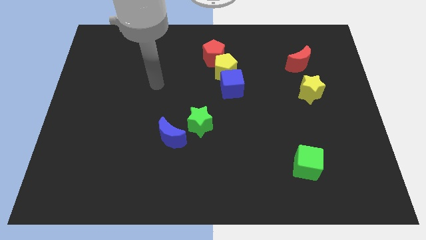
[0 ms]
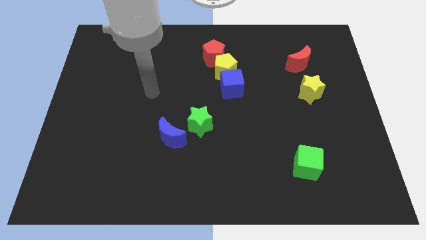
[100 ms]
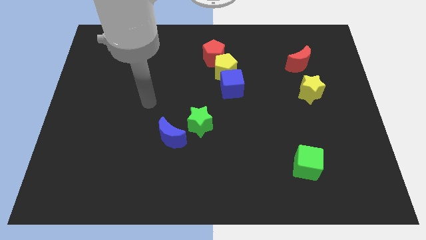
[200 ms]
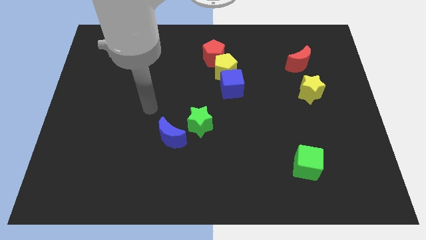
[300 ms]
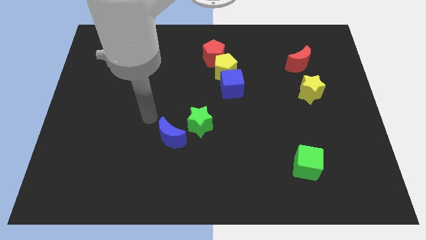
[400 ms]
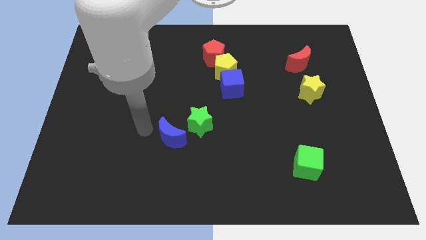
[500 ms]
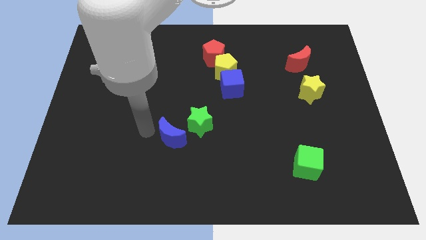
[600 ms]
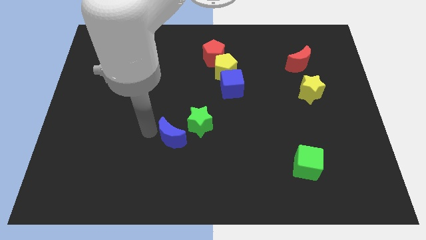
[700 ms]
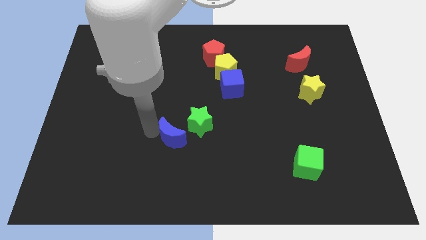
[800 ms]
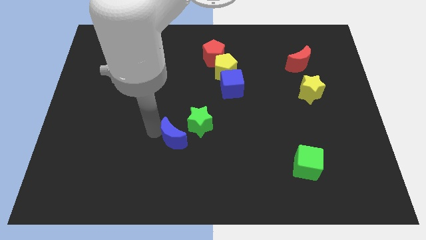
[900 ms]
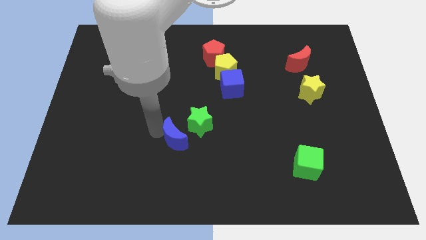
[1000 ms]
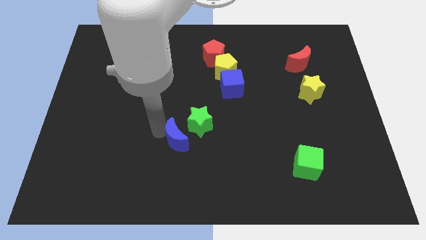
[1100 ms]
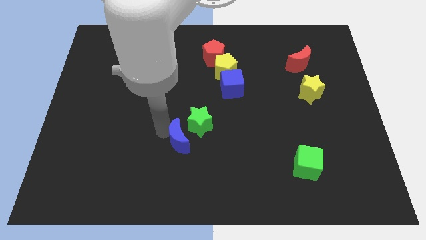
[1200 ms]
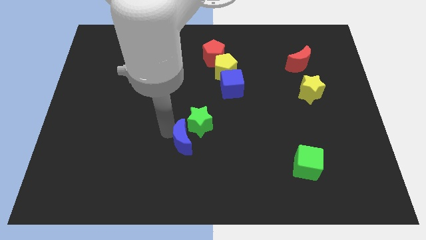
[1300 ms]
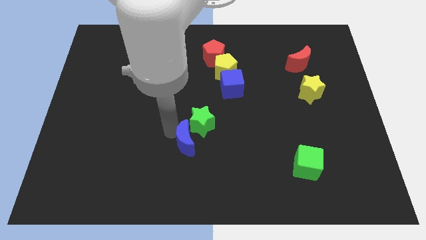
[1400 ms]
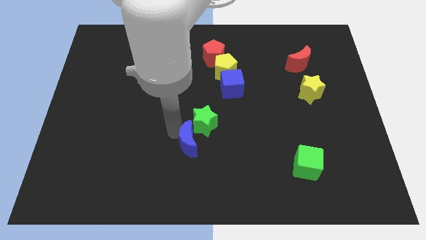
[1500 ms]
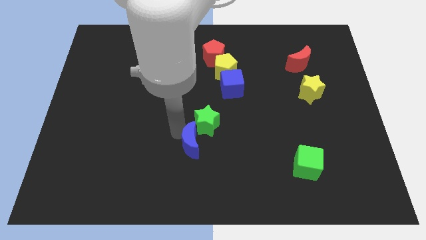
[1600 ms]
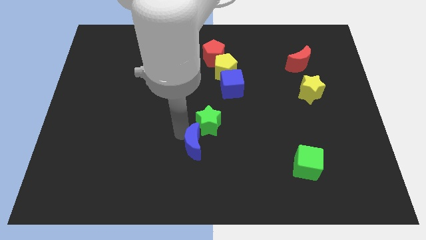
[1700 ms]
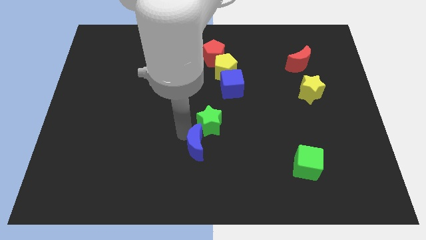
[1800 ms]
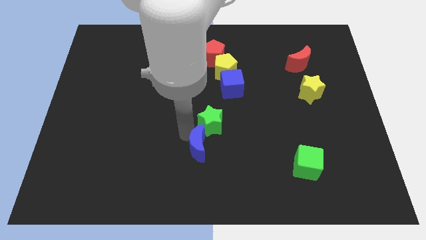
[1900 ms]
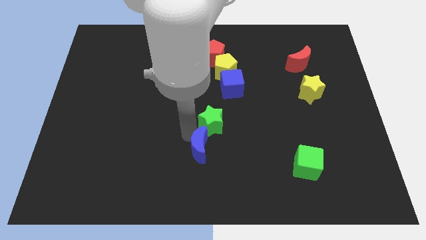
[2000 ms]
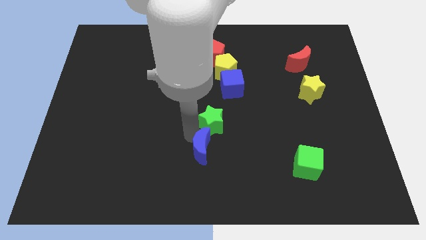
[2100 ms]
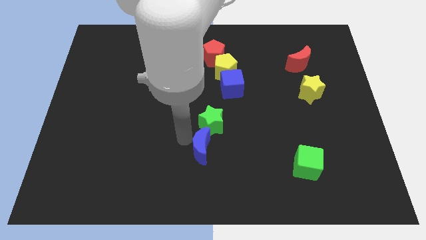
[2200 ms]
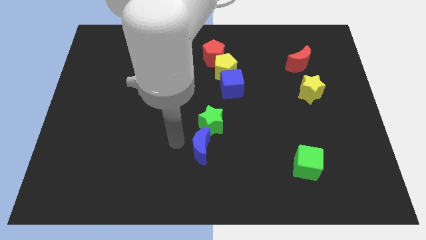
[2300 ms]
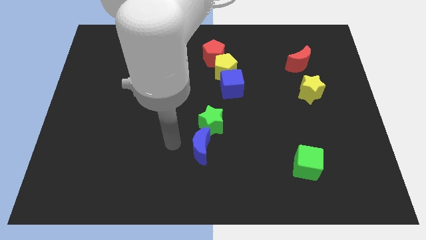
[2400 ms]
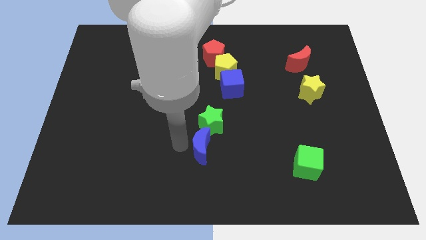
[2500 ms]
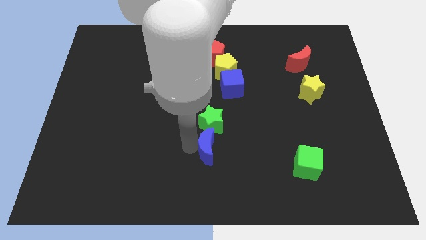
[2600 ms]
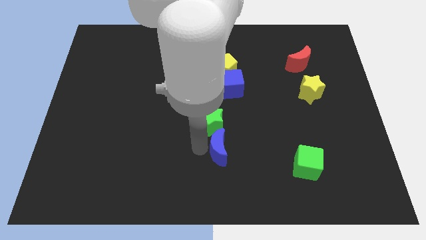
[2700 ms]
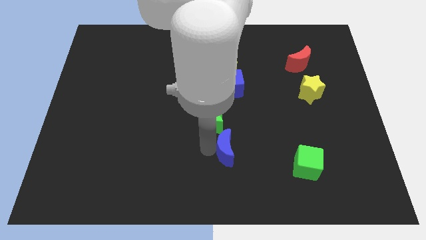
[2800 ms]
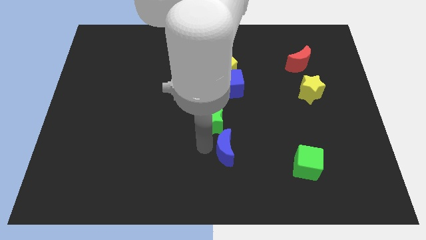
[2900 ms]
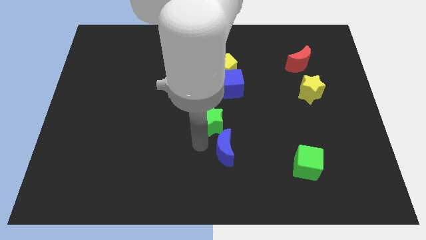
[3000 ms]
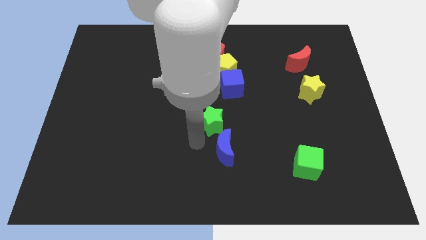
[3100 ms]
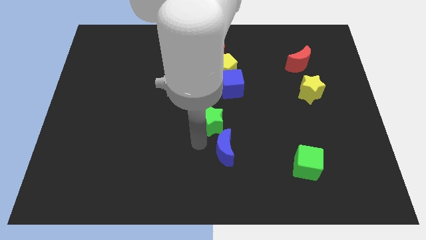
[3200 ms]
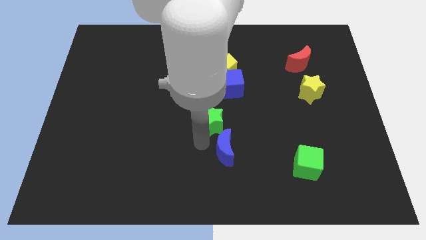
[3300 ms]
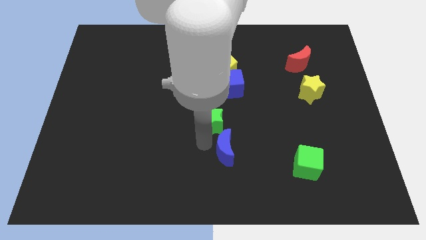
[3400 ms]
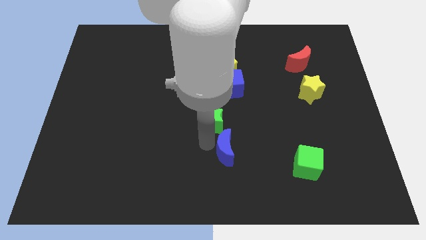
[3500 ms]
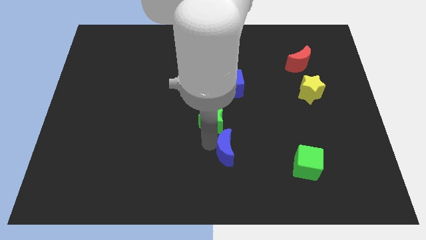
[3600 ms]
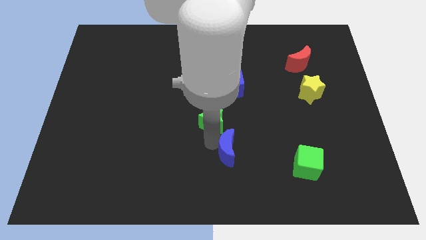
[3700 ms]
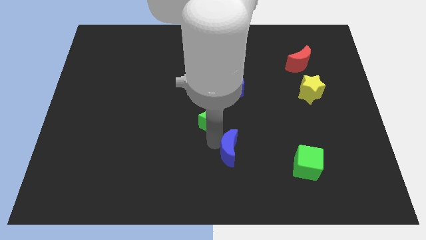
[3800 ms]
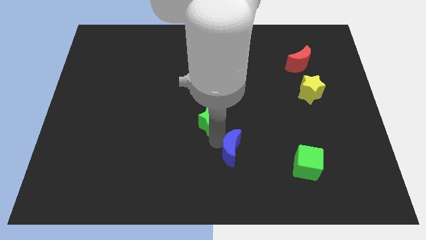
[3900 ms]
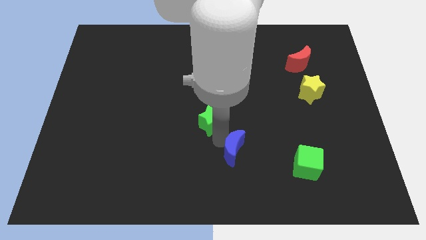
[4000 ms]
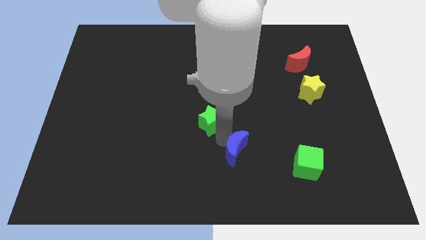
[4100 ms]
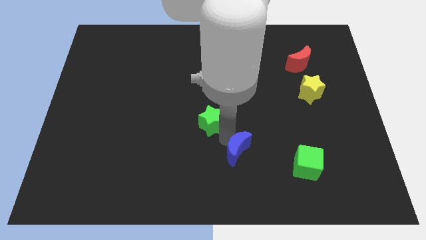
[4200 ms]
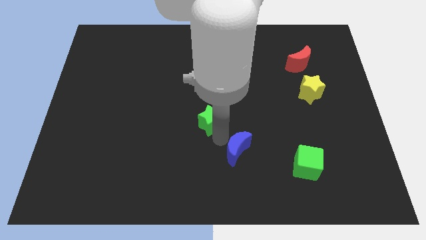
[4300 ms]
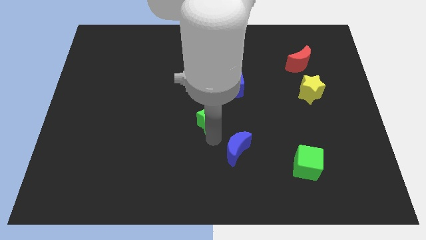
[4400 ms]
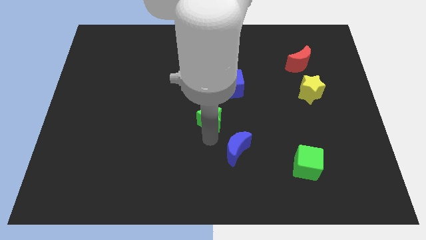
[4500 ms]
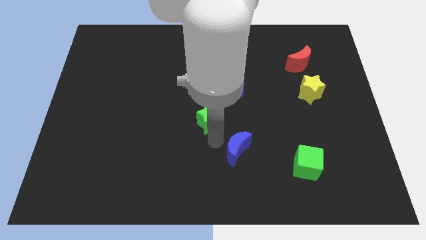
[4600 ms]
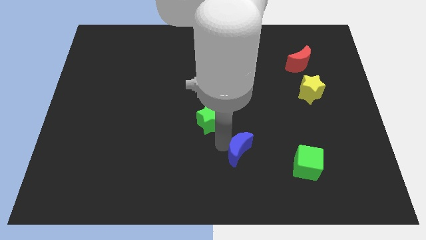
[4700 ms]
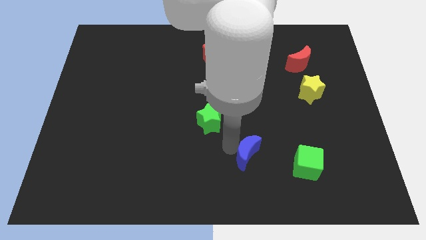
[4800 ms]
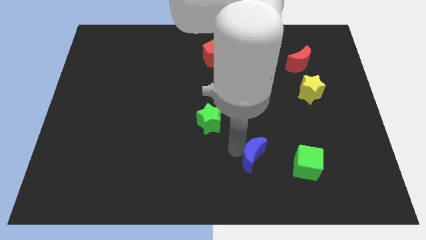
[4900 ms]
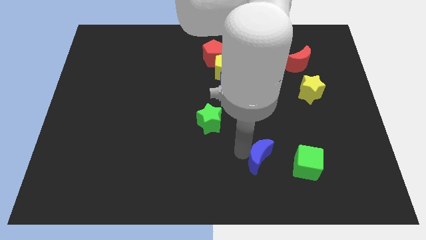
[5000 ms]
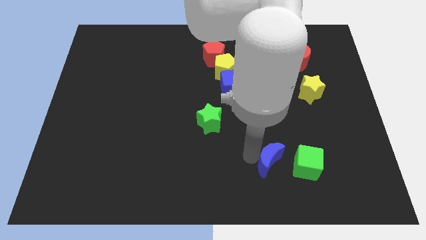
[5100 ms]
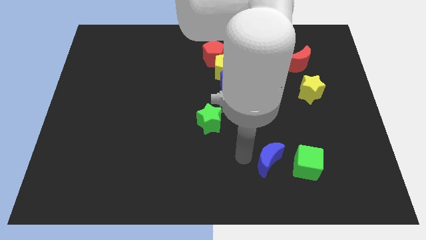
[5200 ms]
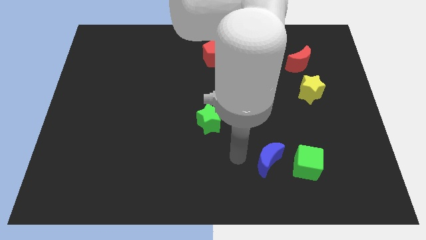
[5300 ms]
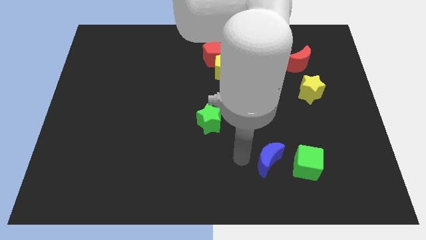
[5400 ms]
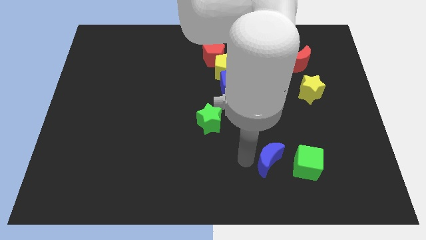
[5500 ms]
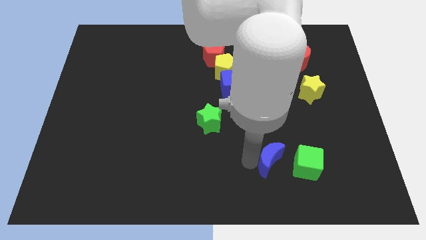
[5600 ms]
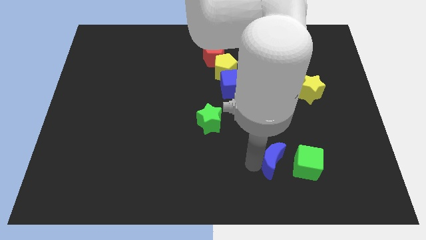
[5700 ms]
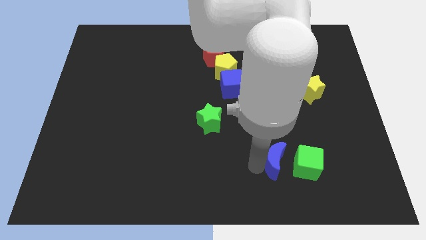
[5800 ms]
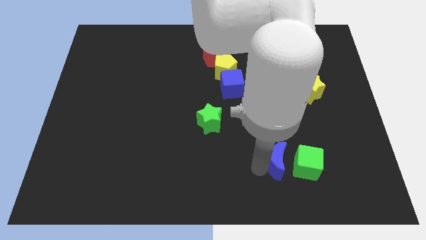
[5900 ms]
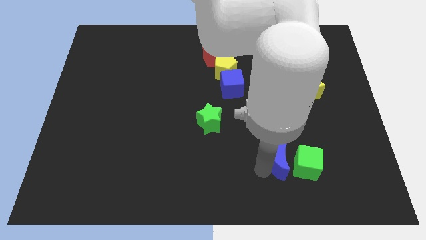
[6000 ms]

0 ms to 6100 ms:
push the blue moon towards the green cube

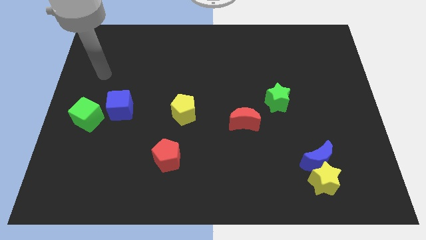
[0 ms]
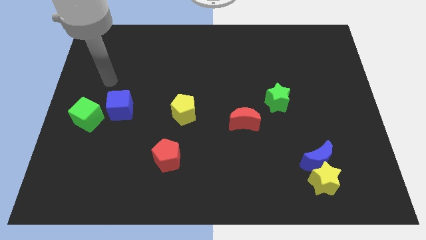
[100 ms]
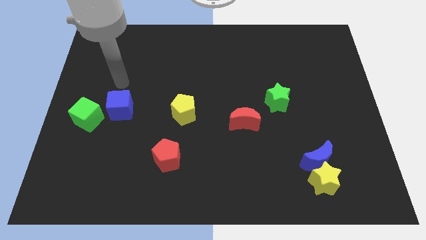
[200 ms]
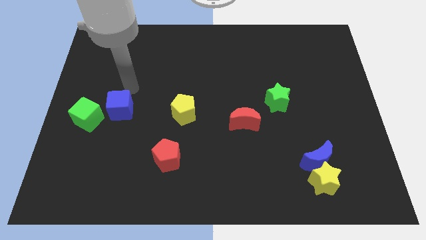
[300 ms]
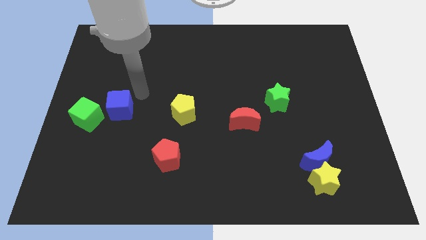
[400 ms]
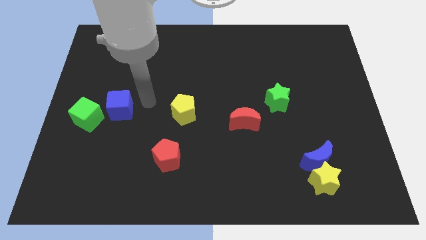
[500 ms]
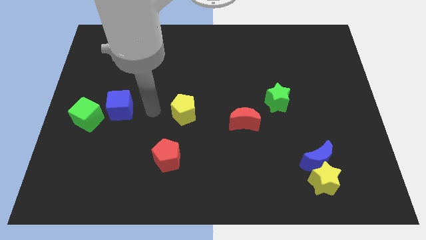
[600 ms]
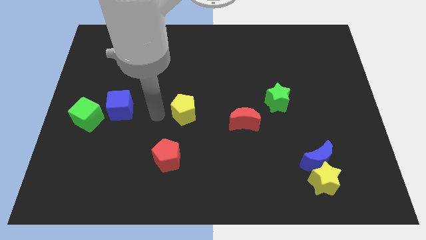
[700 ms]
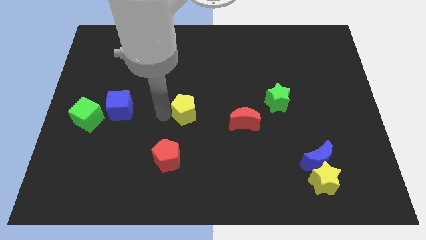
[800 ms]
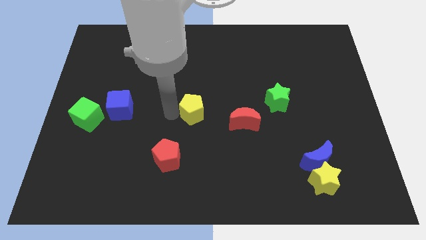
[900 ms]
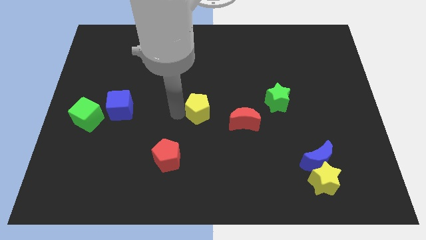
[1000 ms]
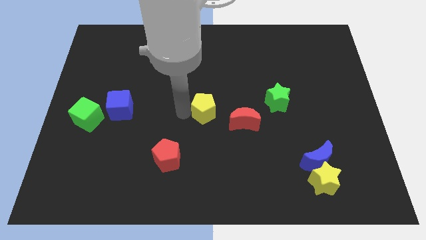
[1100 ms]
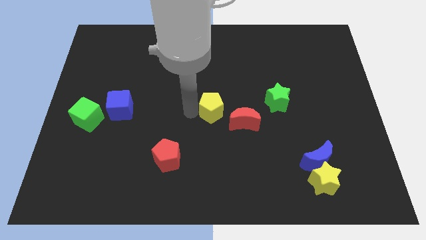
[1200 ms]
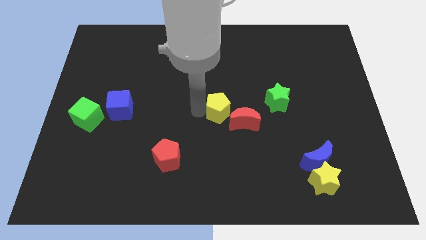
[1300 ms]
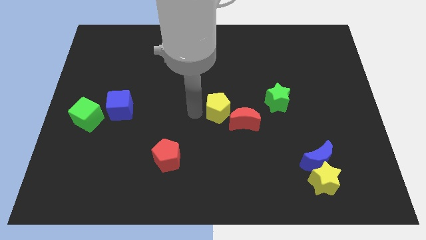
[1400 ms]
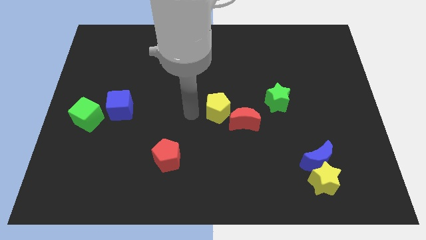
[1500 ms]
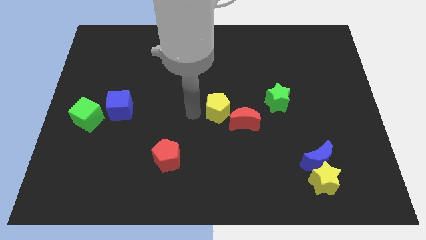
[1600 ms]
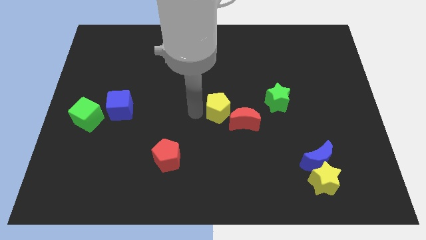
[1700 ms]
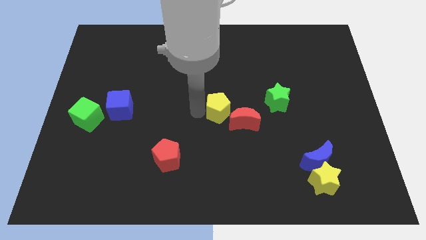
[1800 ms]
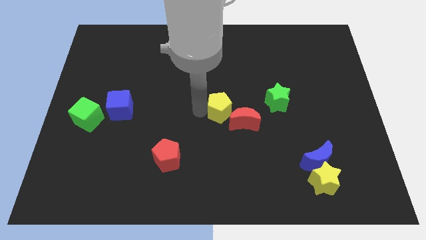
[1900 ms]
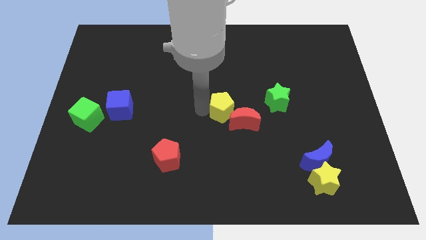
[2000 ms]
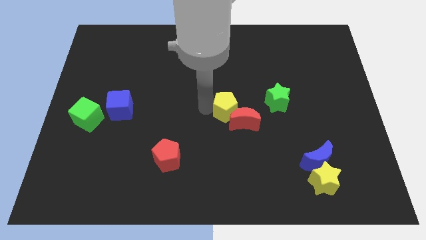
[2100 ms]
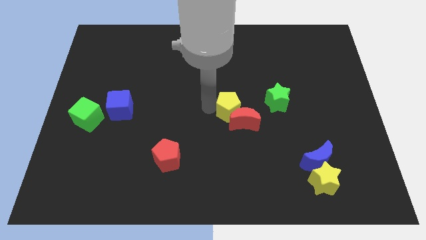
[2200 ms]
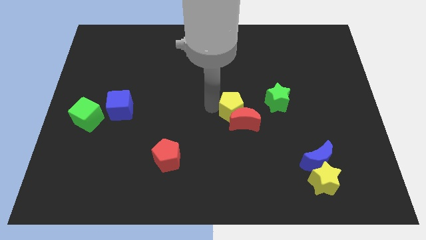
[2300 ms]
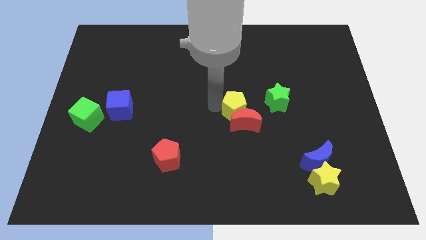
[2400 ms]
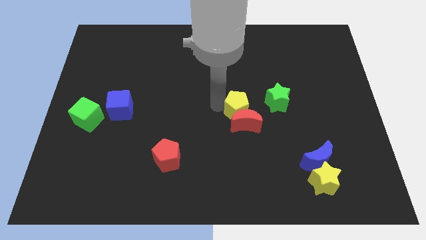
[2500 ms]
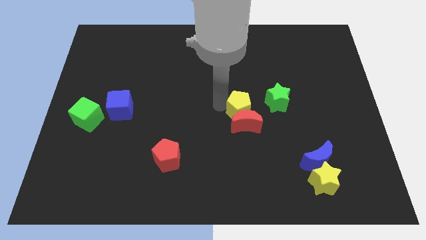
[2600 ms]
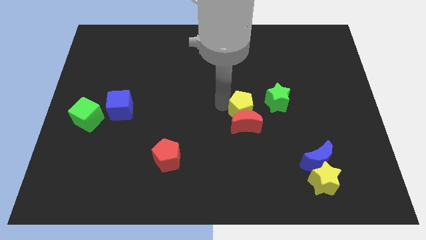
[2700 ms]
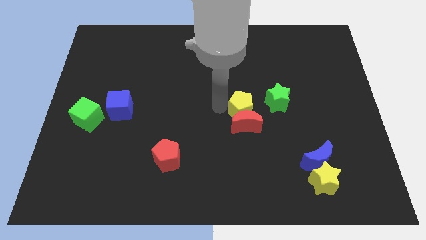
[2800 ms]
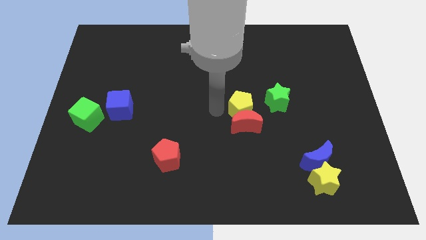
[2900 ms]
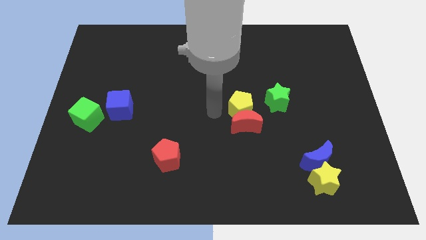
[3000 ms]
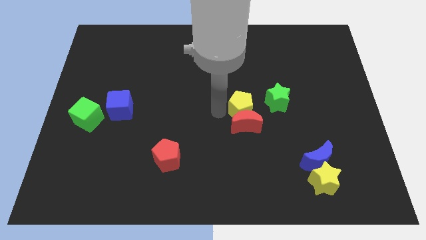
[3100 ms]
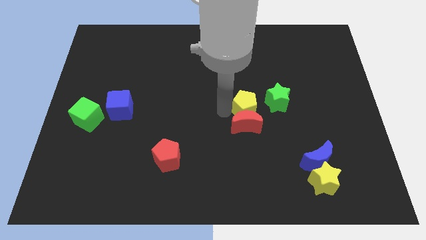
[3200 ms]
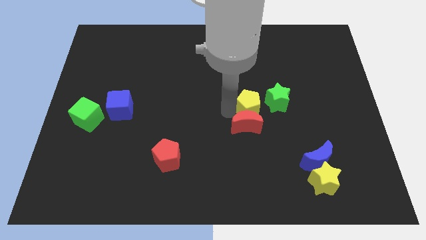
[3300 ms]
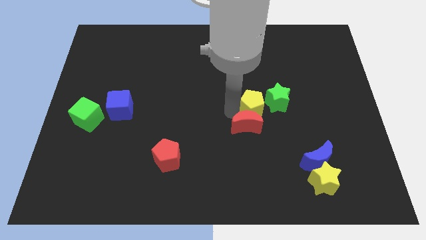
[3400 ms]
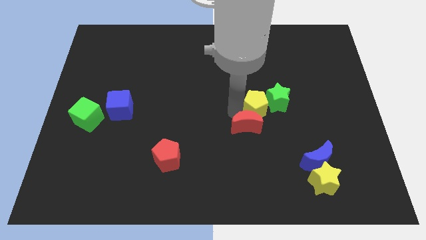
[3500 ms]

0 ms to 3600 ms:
put the yellow pentagon close to the green star
